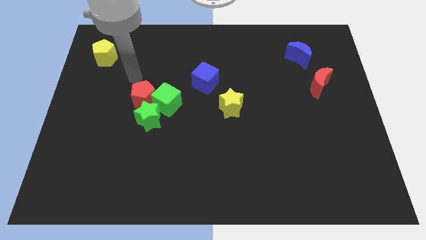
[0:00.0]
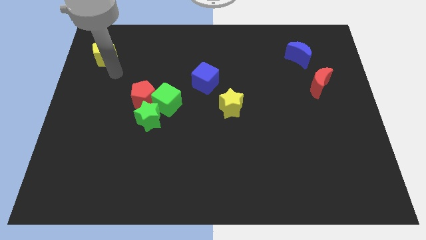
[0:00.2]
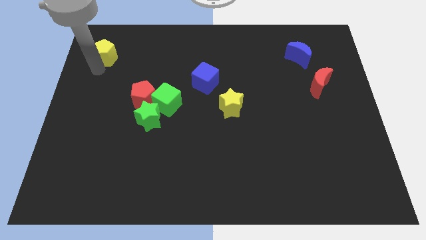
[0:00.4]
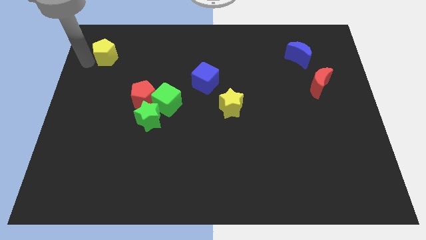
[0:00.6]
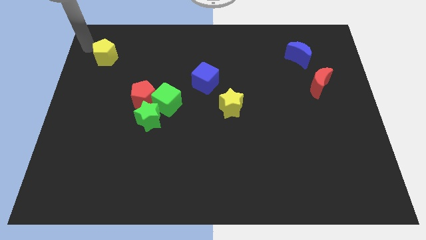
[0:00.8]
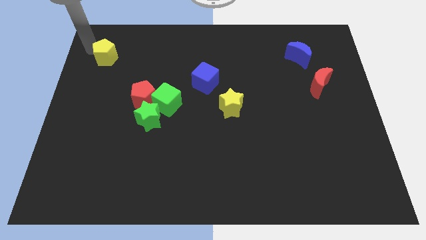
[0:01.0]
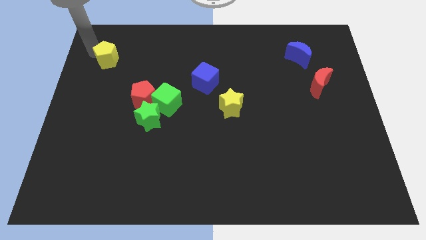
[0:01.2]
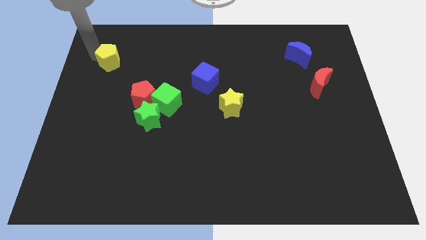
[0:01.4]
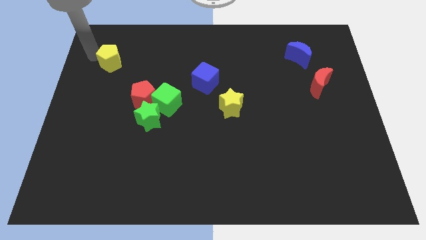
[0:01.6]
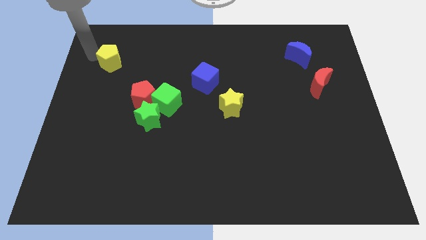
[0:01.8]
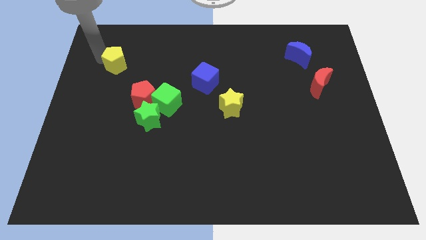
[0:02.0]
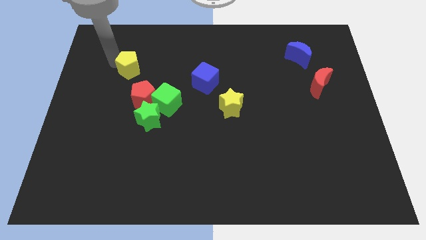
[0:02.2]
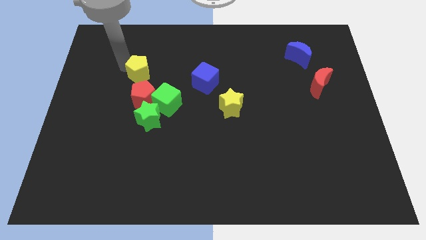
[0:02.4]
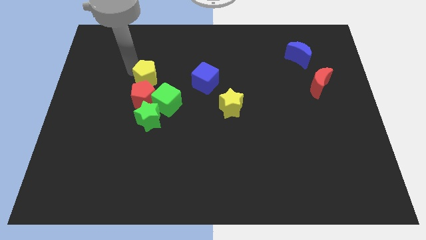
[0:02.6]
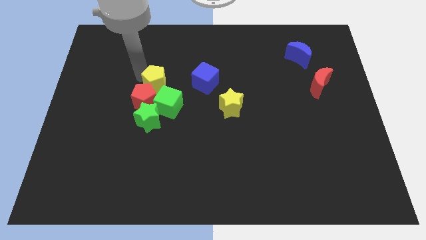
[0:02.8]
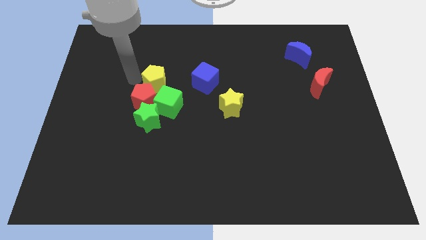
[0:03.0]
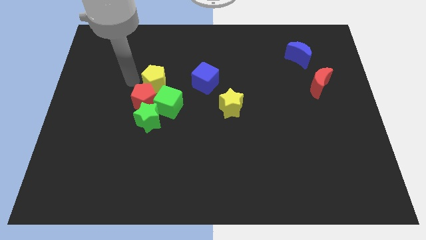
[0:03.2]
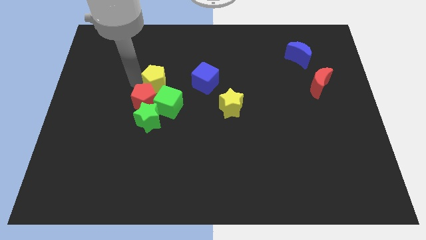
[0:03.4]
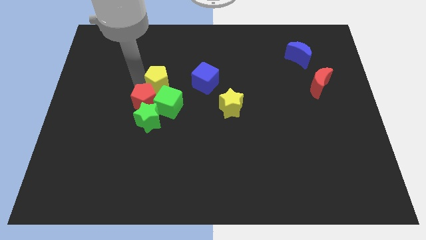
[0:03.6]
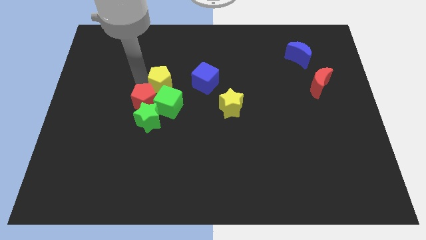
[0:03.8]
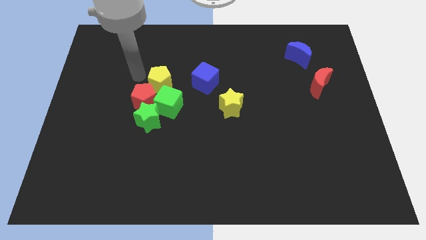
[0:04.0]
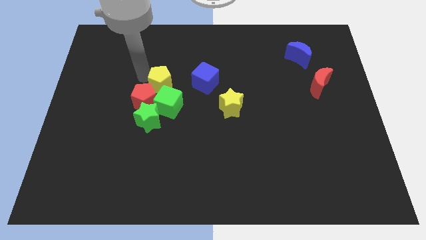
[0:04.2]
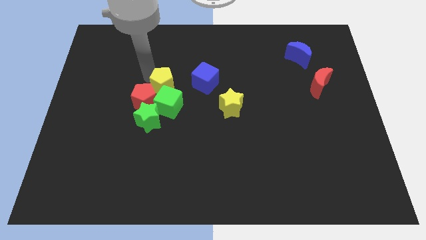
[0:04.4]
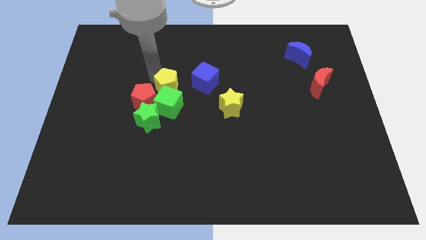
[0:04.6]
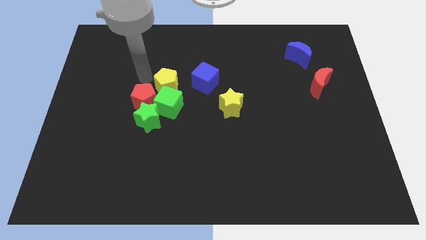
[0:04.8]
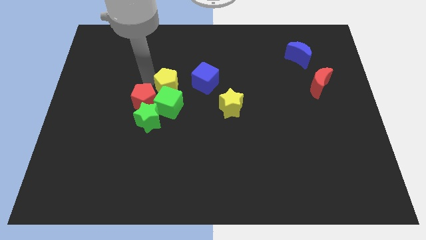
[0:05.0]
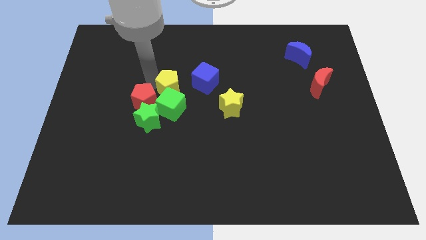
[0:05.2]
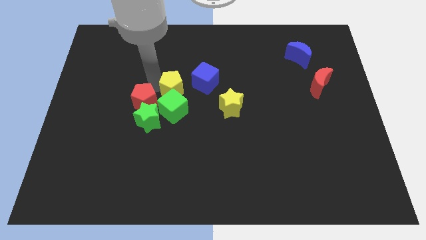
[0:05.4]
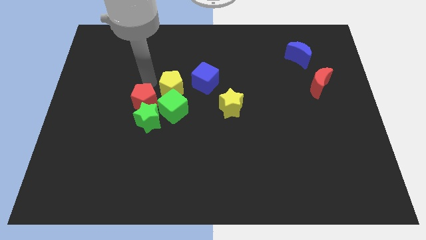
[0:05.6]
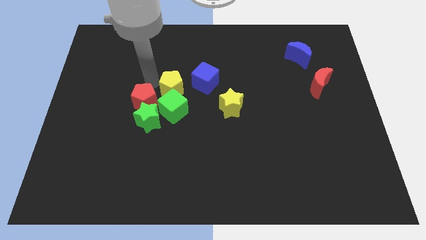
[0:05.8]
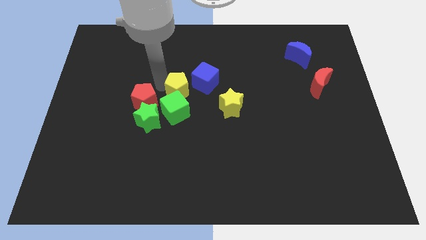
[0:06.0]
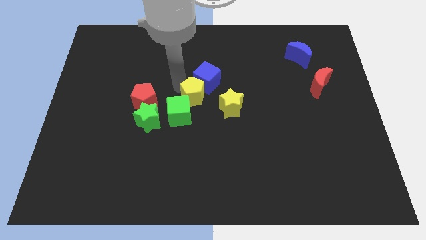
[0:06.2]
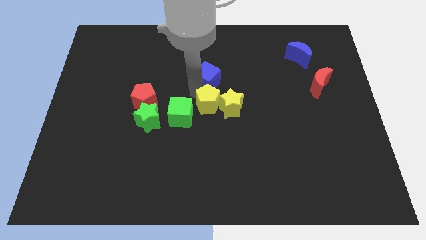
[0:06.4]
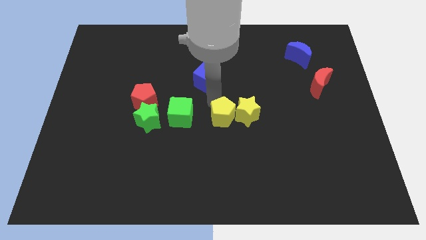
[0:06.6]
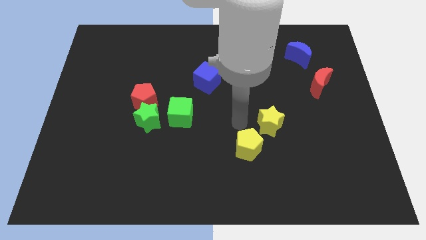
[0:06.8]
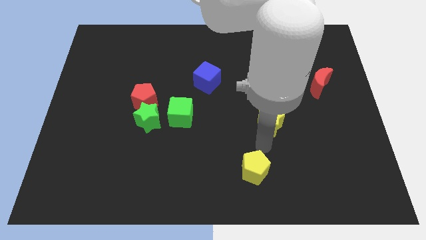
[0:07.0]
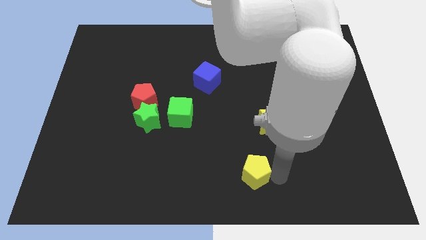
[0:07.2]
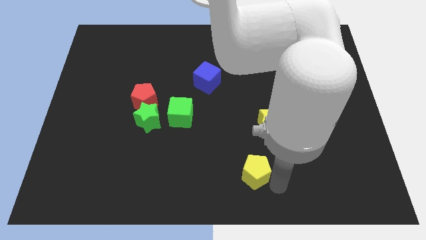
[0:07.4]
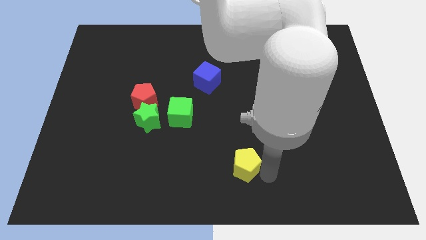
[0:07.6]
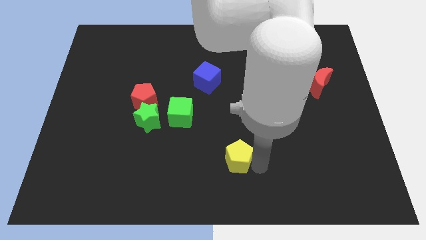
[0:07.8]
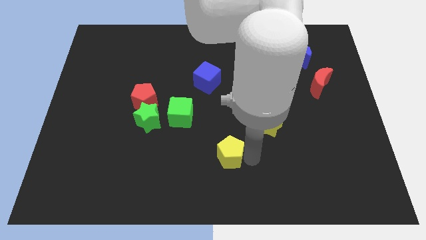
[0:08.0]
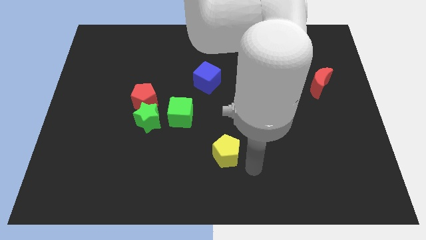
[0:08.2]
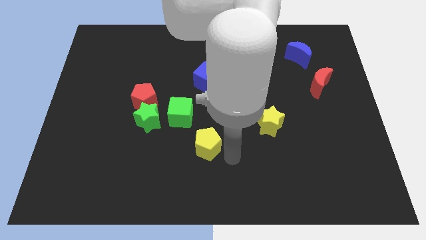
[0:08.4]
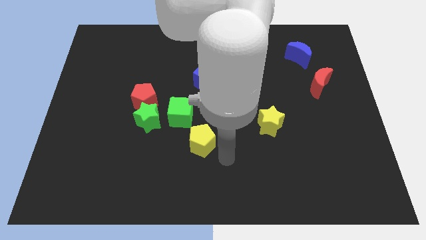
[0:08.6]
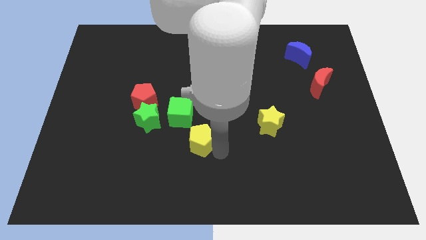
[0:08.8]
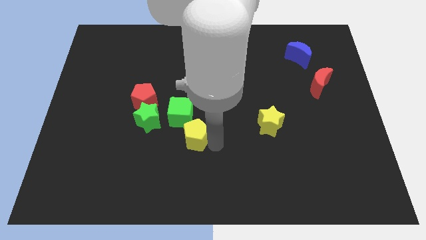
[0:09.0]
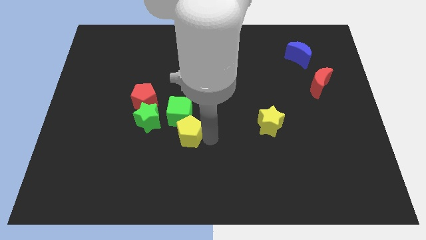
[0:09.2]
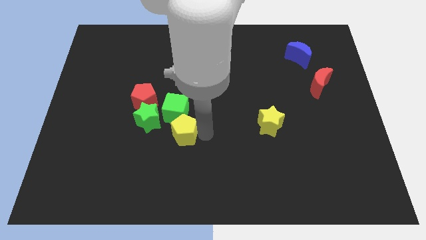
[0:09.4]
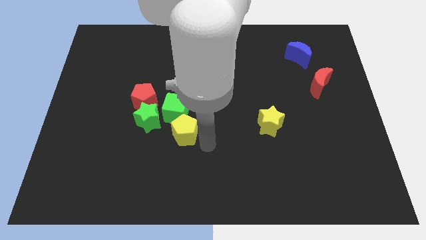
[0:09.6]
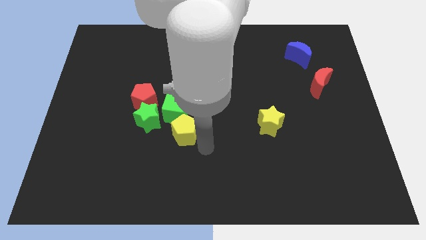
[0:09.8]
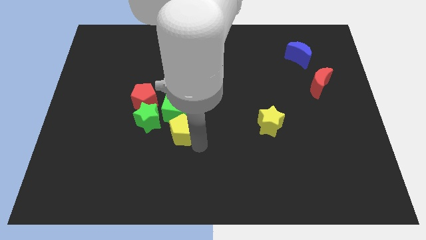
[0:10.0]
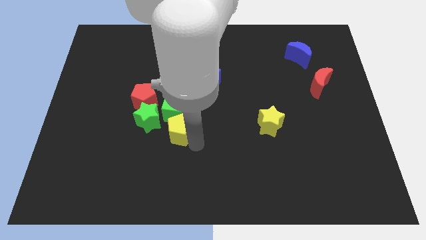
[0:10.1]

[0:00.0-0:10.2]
slide the yellow pentagon to the bottom right of the red pentagon

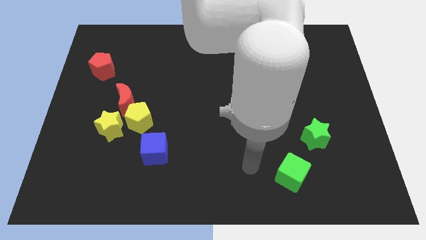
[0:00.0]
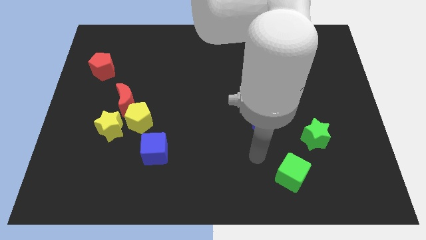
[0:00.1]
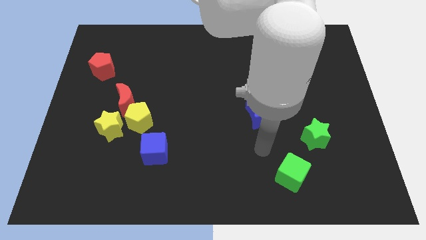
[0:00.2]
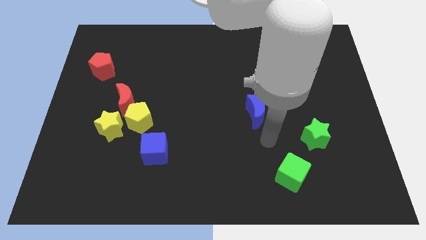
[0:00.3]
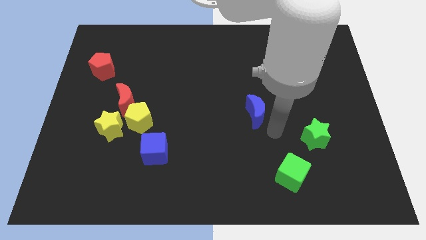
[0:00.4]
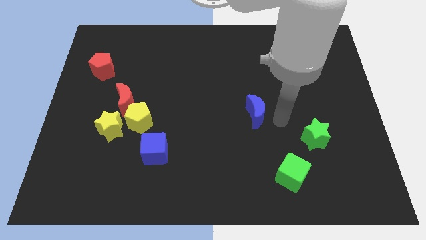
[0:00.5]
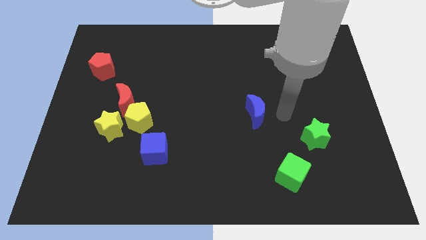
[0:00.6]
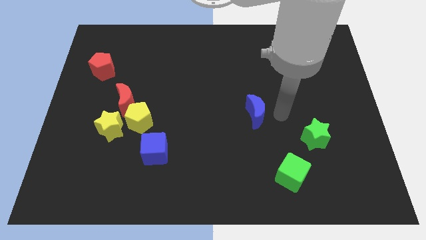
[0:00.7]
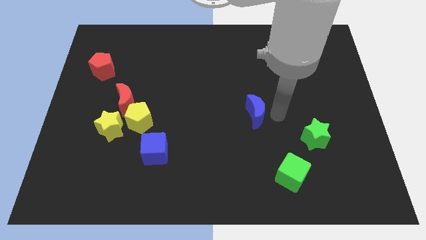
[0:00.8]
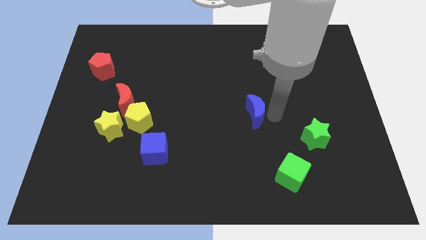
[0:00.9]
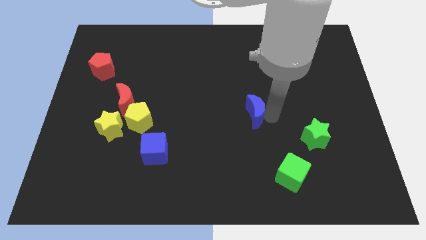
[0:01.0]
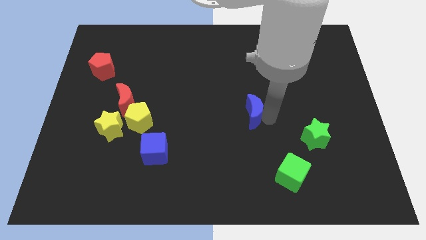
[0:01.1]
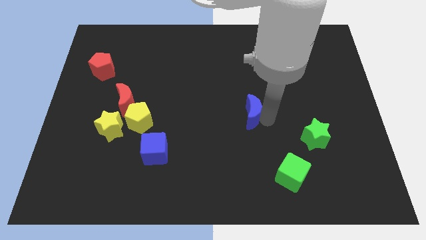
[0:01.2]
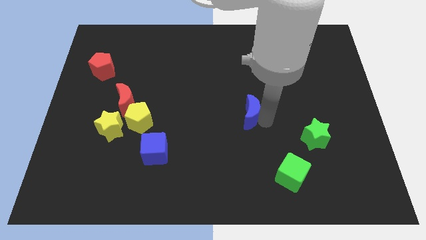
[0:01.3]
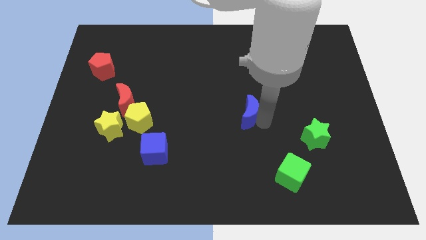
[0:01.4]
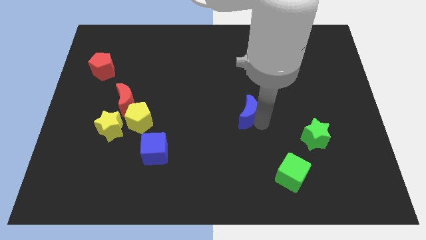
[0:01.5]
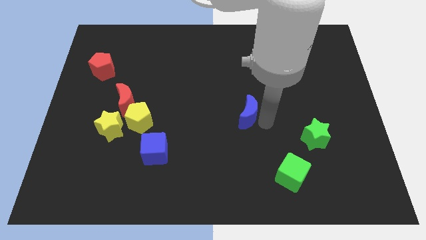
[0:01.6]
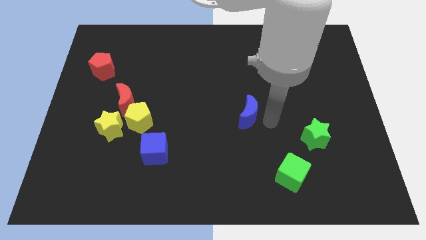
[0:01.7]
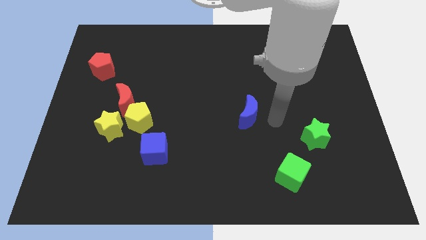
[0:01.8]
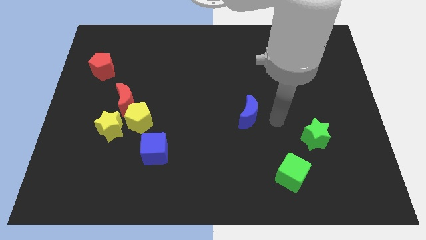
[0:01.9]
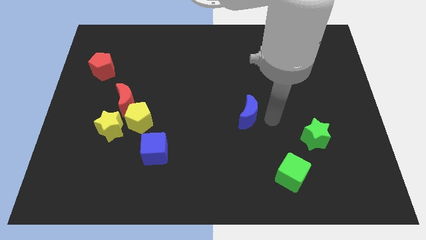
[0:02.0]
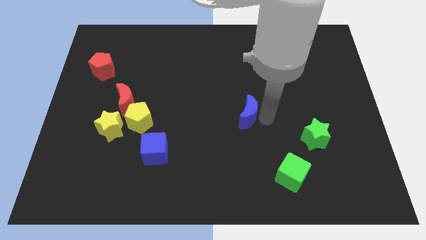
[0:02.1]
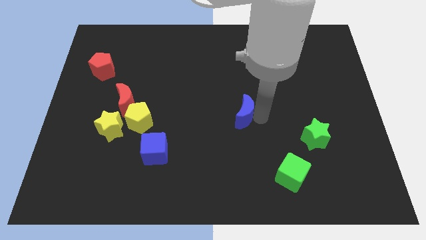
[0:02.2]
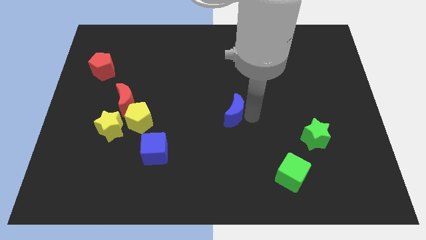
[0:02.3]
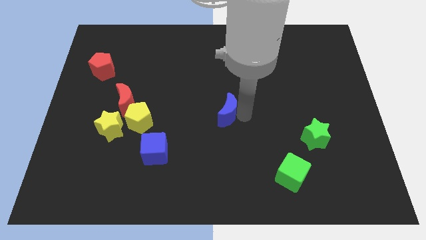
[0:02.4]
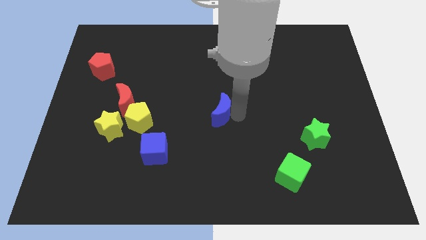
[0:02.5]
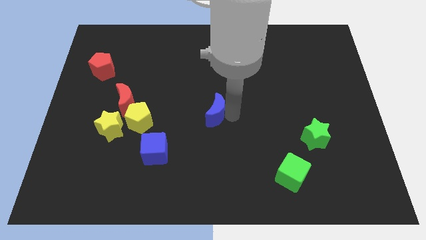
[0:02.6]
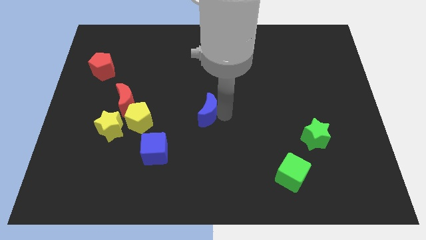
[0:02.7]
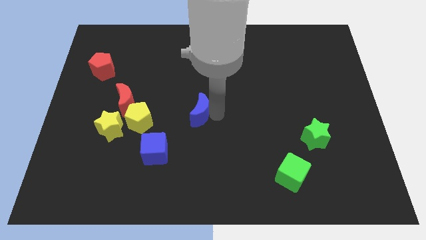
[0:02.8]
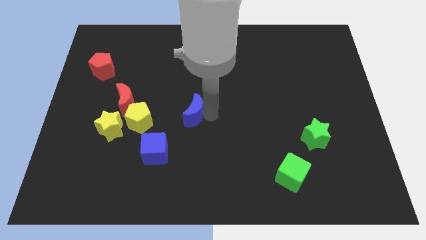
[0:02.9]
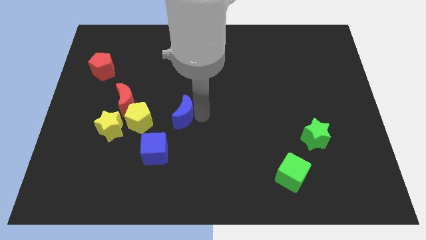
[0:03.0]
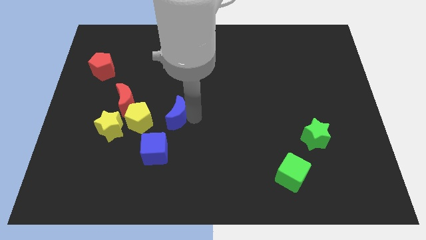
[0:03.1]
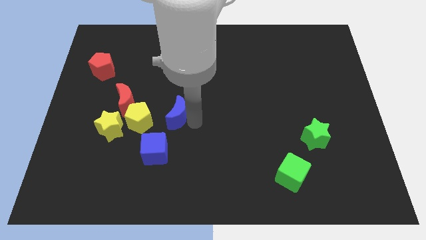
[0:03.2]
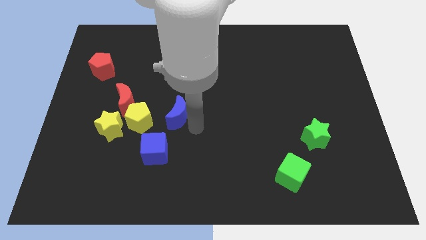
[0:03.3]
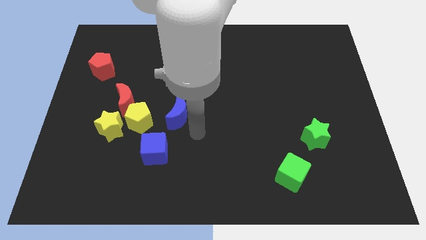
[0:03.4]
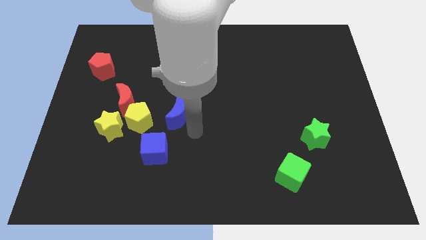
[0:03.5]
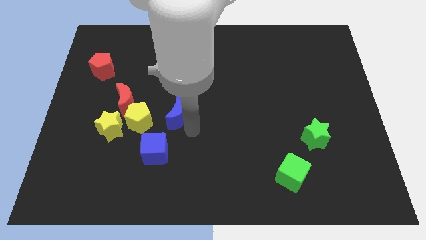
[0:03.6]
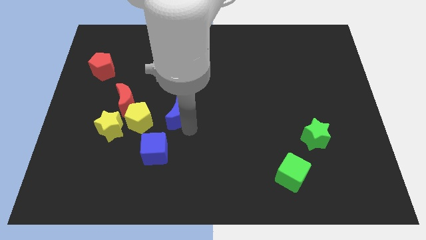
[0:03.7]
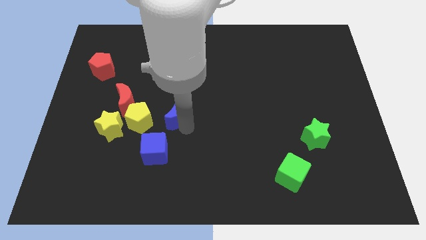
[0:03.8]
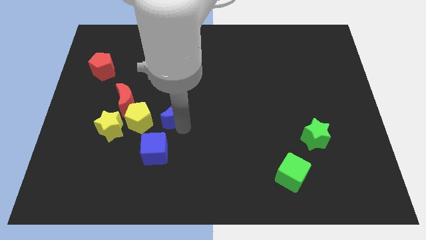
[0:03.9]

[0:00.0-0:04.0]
push the blue moon to the top right side of the yellow pentagon
